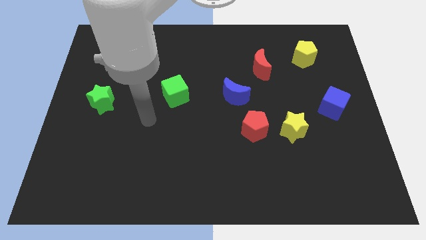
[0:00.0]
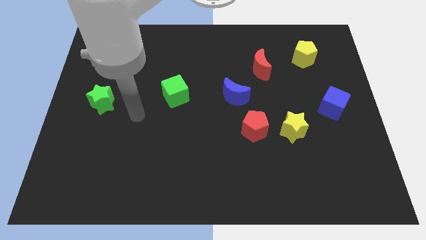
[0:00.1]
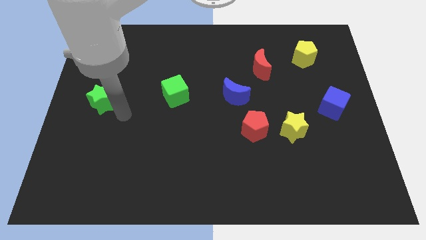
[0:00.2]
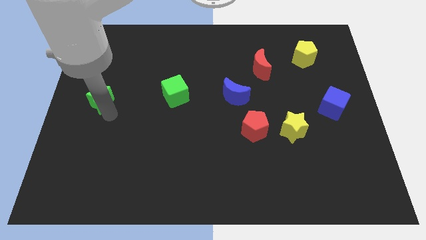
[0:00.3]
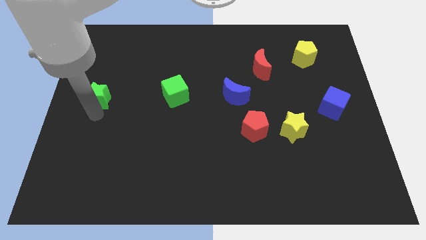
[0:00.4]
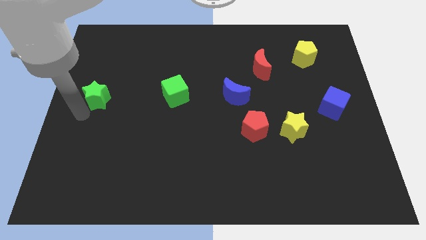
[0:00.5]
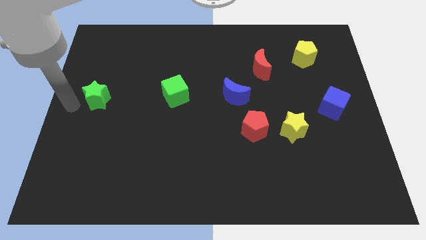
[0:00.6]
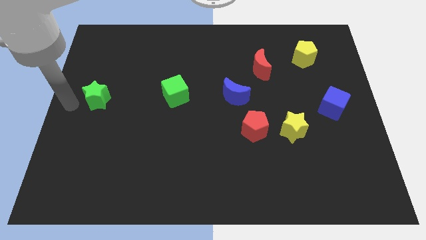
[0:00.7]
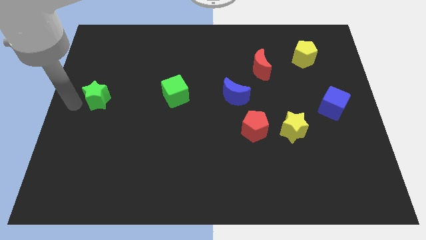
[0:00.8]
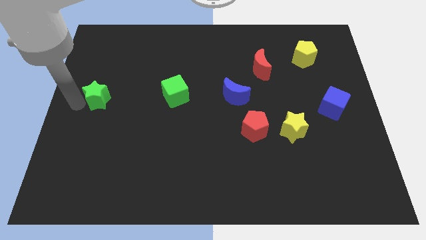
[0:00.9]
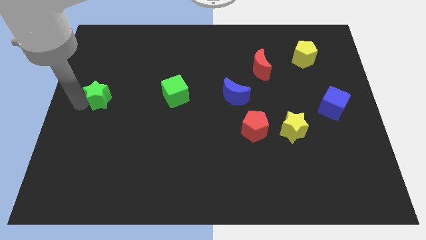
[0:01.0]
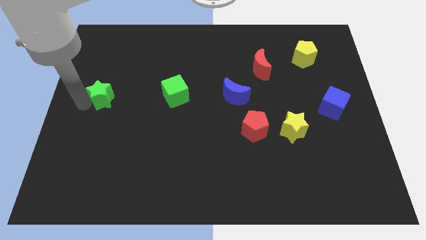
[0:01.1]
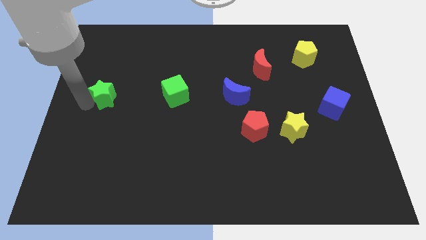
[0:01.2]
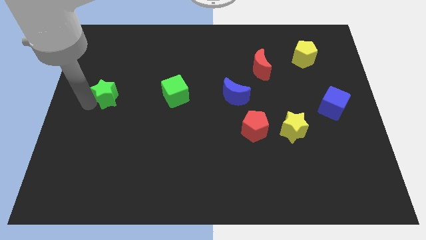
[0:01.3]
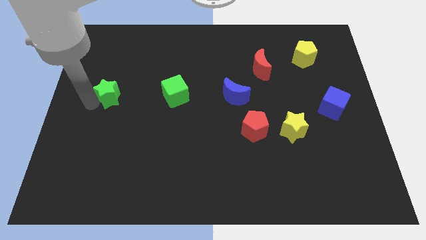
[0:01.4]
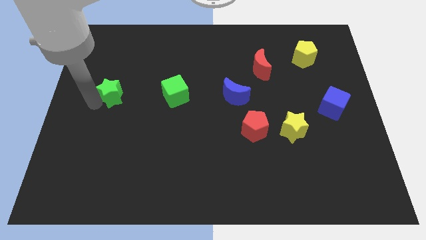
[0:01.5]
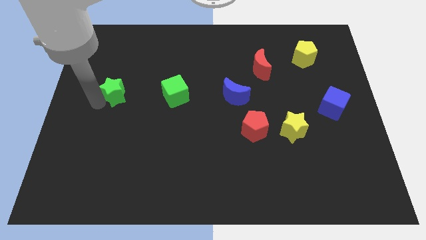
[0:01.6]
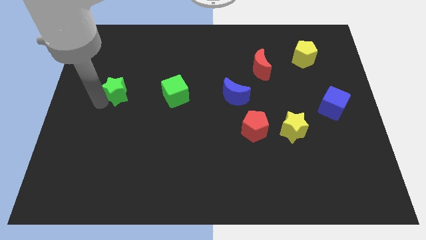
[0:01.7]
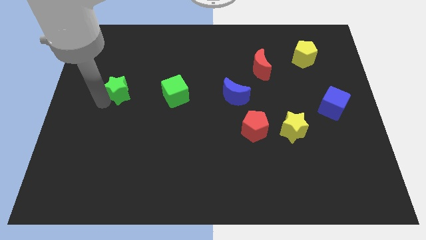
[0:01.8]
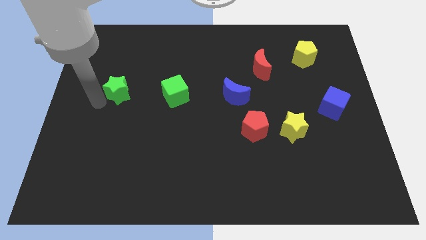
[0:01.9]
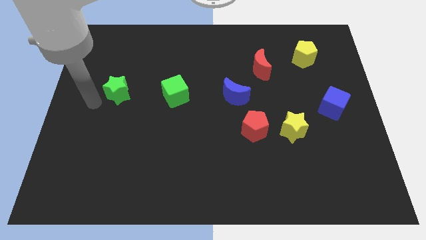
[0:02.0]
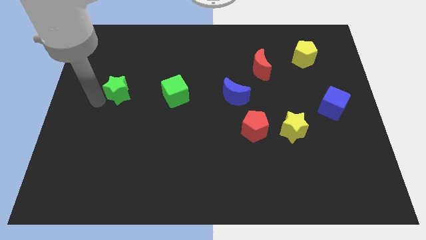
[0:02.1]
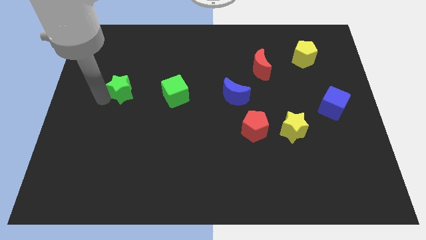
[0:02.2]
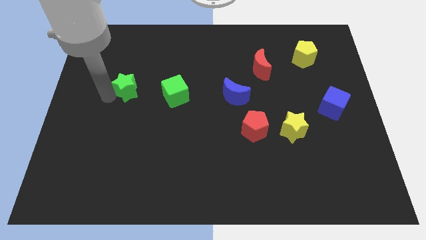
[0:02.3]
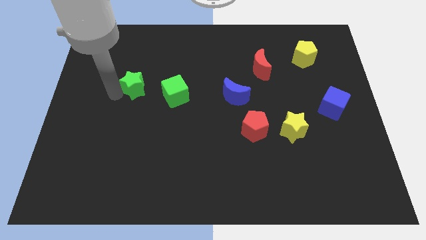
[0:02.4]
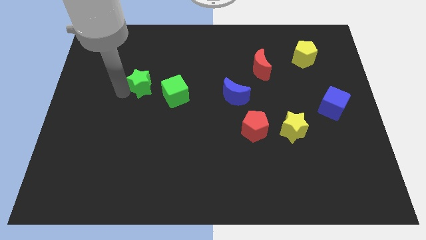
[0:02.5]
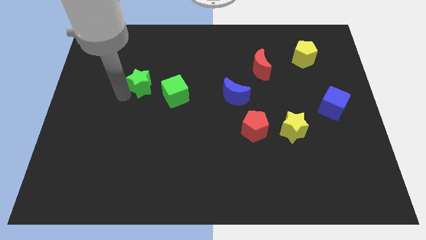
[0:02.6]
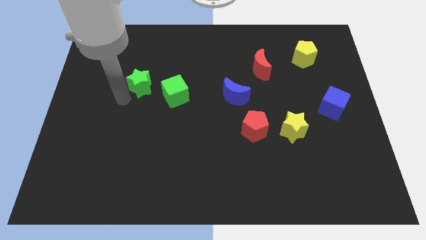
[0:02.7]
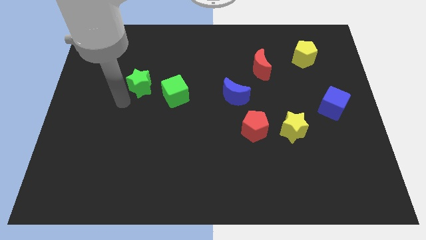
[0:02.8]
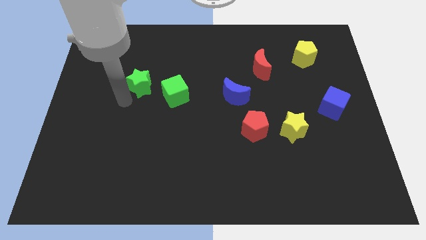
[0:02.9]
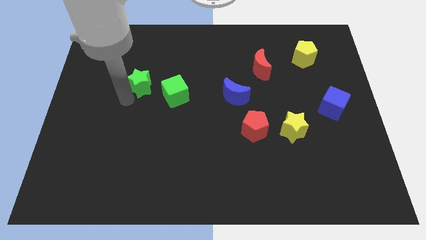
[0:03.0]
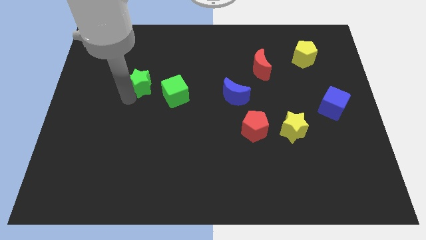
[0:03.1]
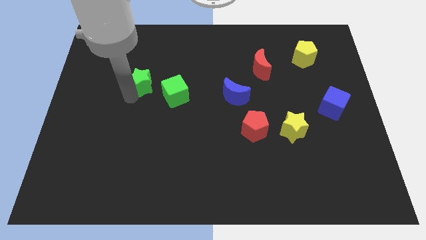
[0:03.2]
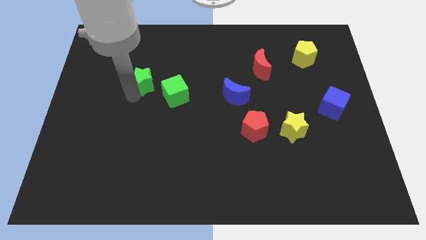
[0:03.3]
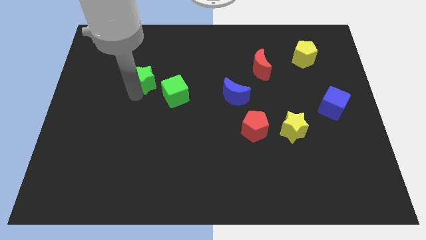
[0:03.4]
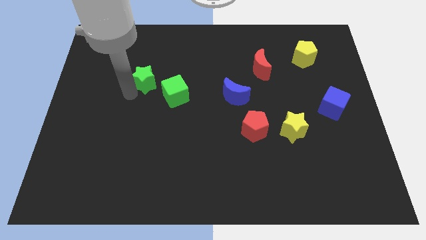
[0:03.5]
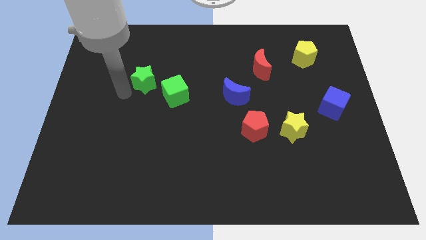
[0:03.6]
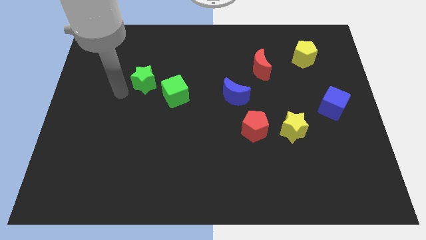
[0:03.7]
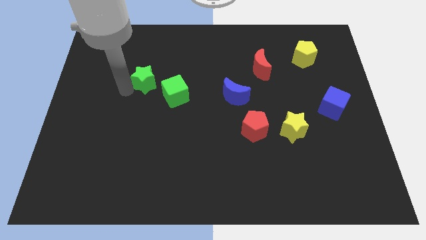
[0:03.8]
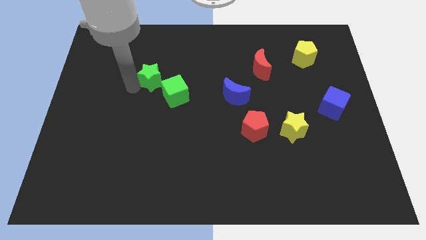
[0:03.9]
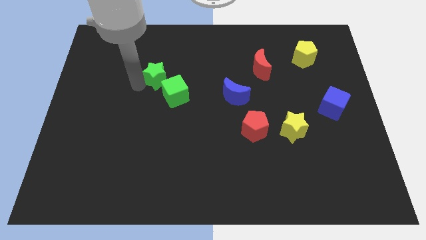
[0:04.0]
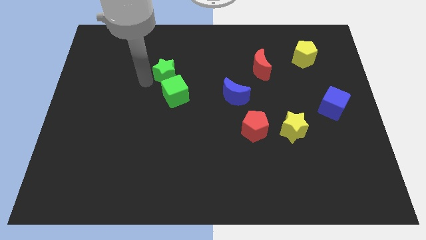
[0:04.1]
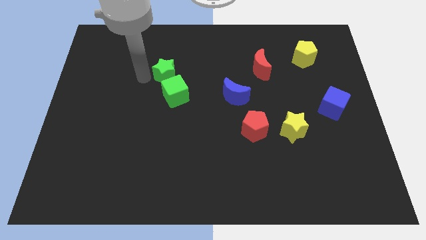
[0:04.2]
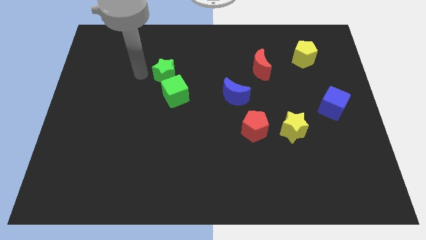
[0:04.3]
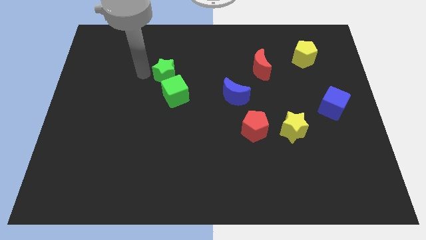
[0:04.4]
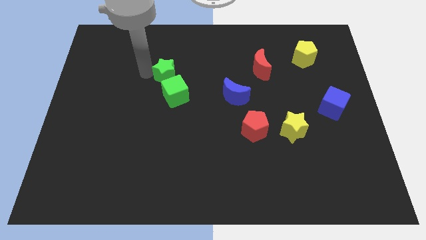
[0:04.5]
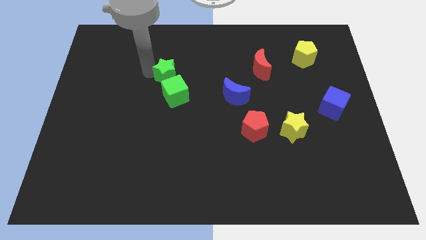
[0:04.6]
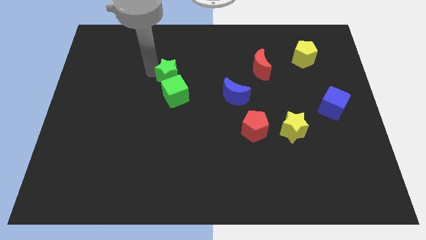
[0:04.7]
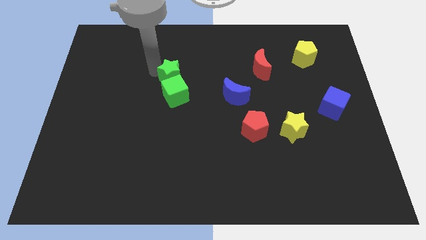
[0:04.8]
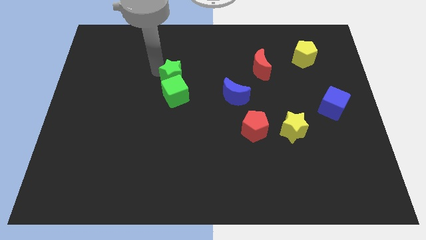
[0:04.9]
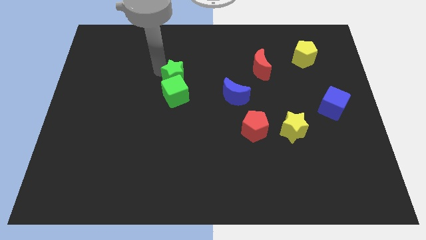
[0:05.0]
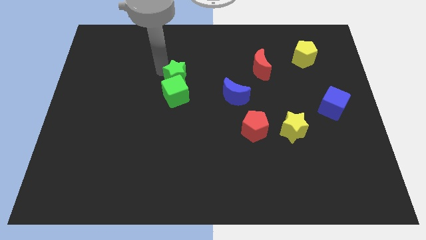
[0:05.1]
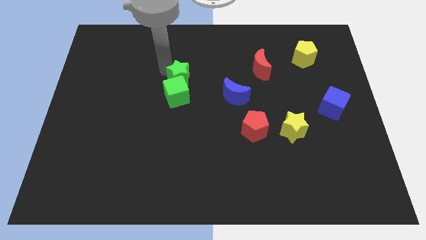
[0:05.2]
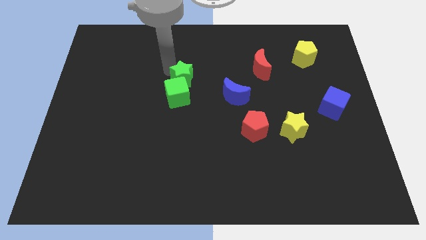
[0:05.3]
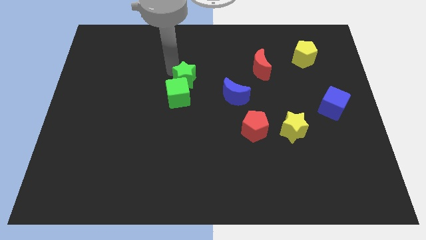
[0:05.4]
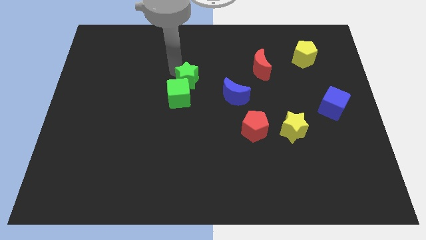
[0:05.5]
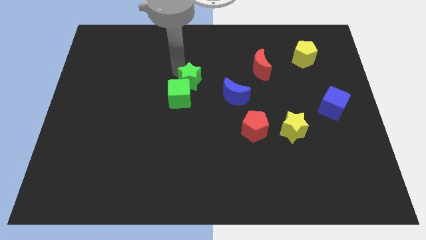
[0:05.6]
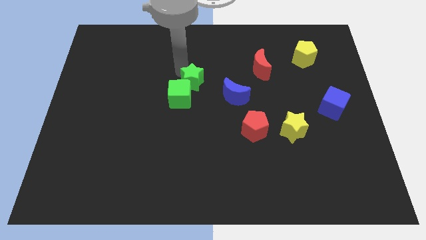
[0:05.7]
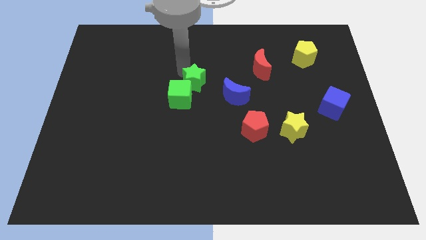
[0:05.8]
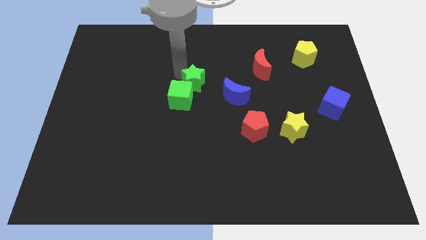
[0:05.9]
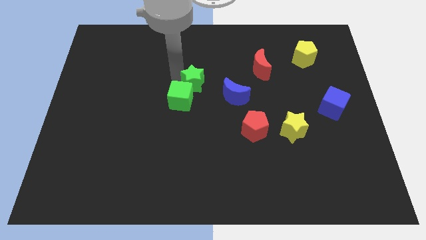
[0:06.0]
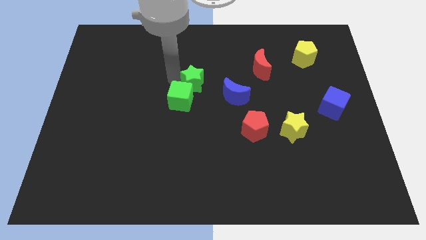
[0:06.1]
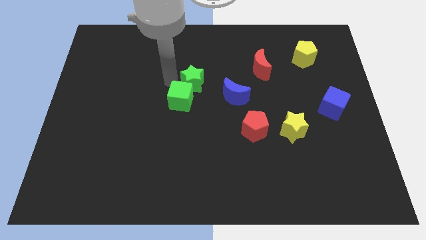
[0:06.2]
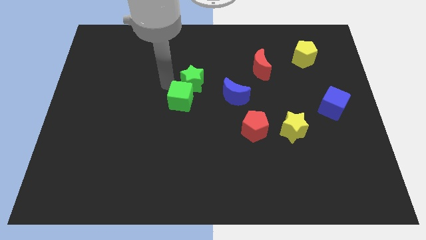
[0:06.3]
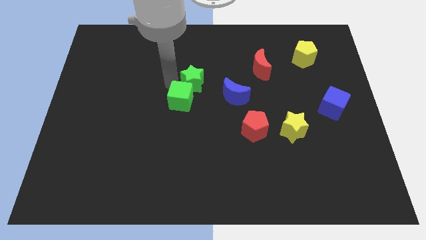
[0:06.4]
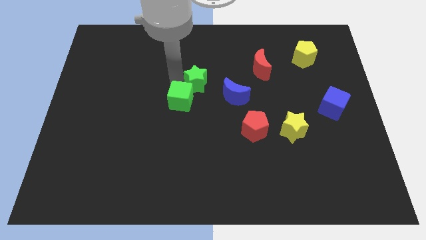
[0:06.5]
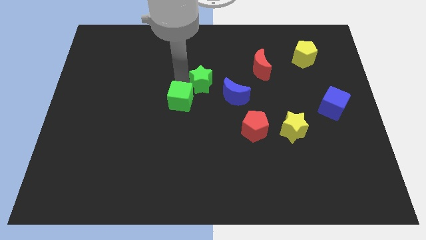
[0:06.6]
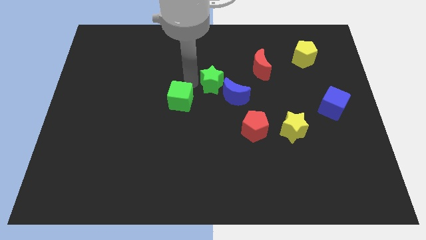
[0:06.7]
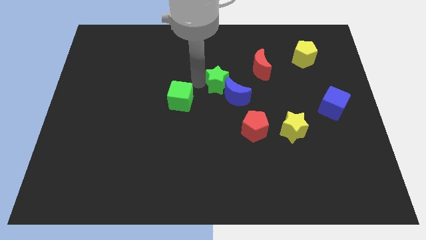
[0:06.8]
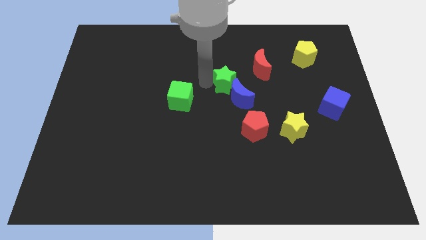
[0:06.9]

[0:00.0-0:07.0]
slide the green star to the bottom left of the red moon
